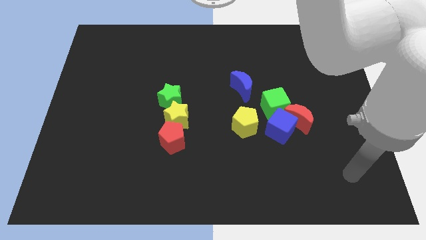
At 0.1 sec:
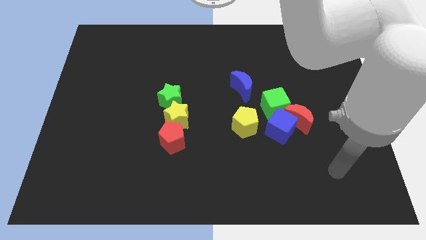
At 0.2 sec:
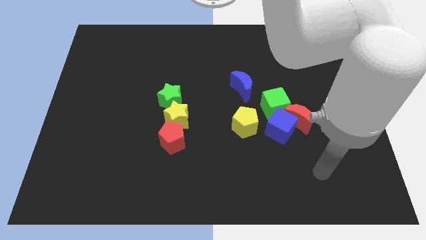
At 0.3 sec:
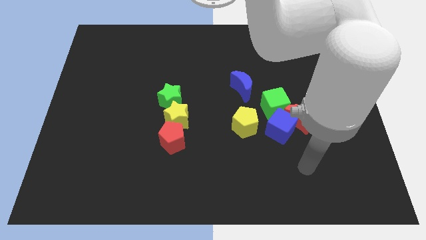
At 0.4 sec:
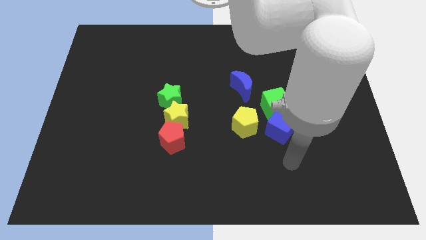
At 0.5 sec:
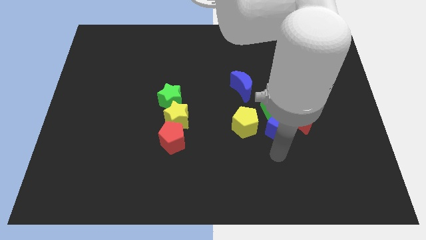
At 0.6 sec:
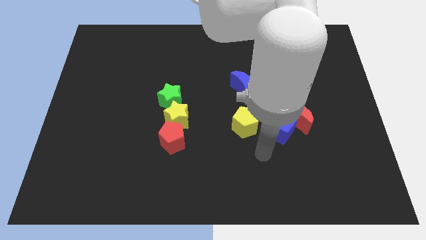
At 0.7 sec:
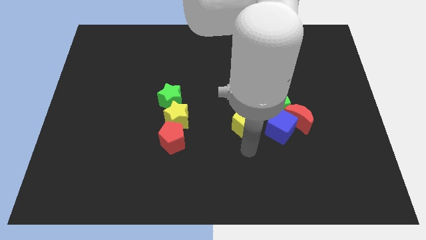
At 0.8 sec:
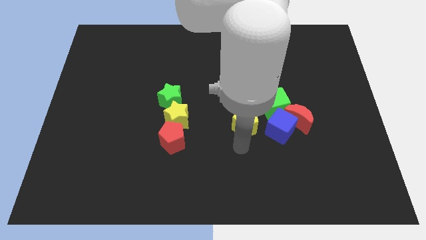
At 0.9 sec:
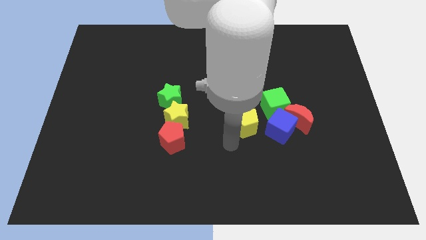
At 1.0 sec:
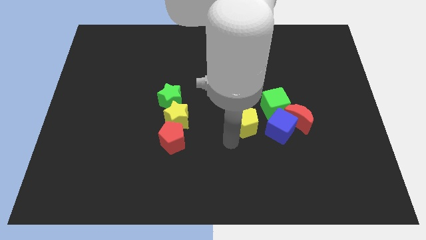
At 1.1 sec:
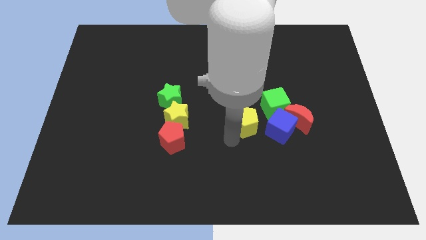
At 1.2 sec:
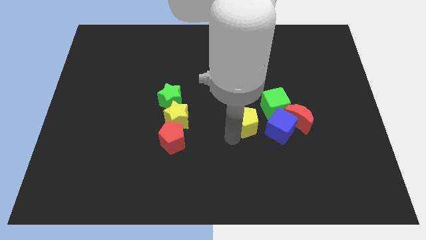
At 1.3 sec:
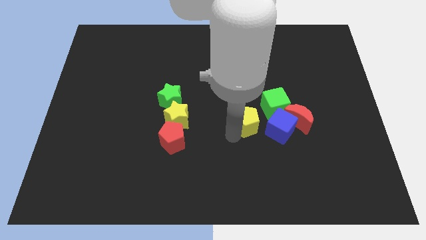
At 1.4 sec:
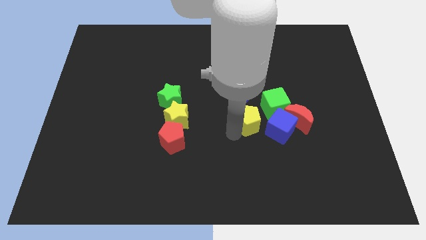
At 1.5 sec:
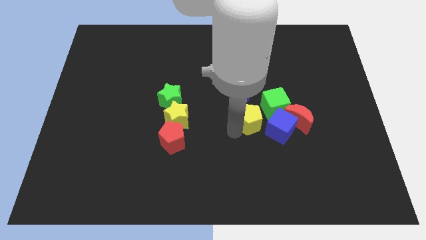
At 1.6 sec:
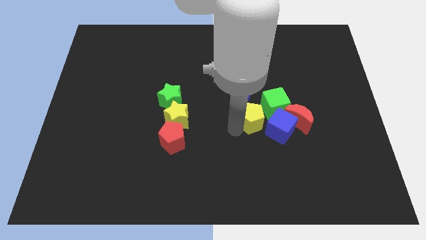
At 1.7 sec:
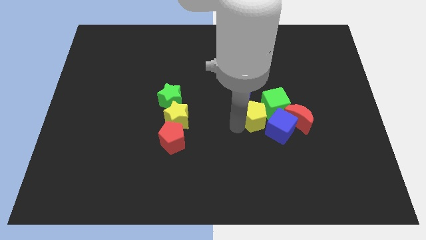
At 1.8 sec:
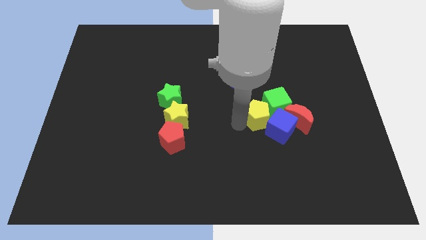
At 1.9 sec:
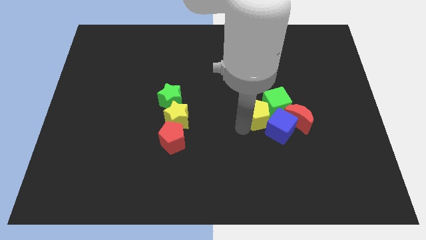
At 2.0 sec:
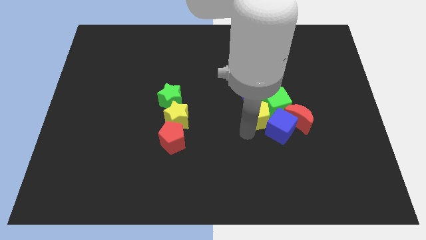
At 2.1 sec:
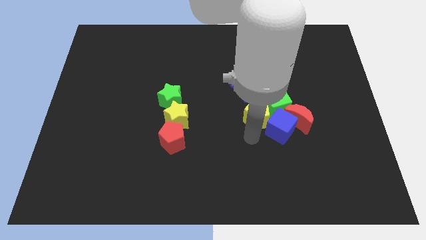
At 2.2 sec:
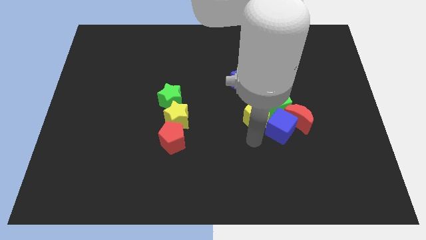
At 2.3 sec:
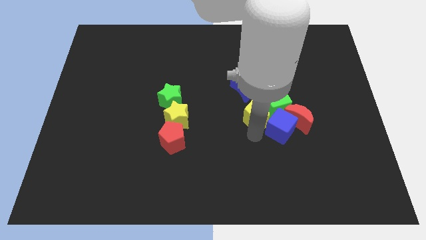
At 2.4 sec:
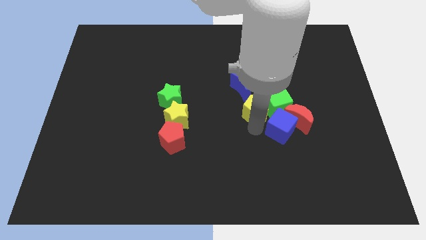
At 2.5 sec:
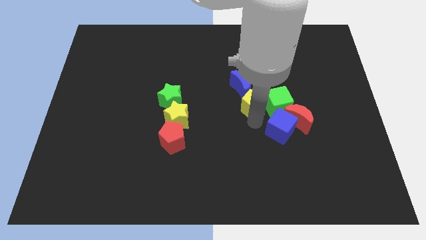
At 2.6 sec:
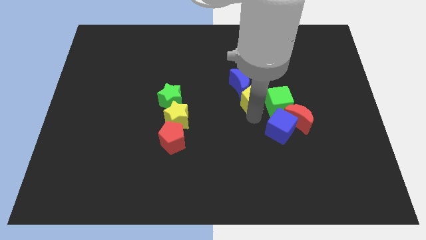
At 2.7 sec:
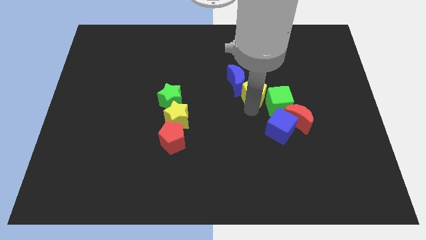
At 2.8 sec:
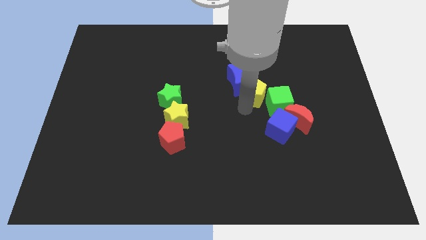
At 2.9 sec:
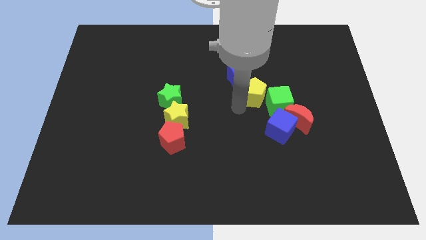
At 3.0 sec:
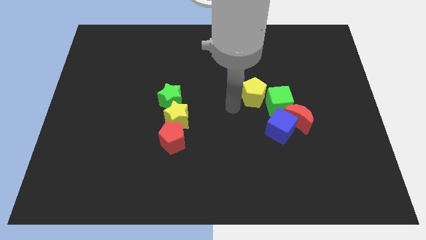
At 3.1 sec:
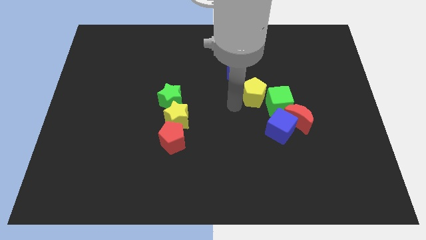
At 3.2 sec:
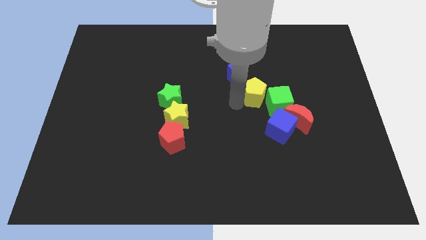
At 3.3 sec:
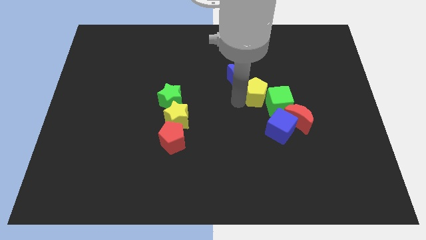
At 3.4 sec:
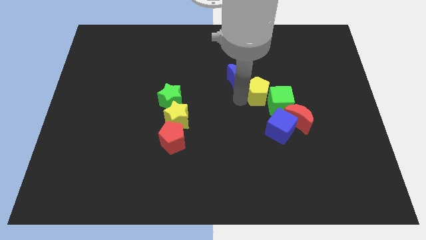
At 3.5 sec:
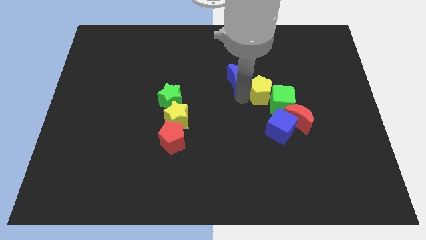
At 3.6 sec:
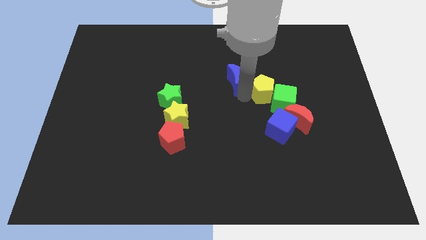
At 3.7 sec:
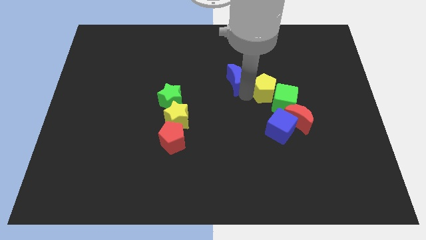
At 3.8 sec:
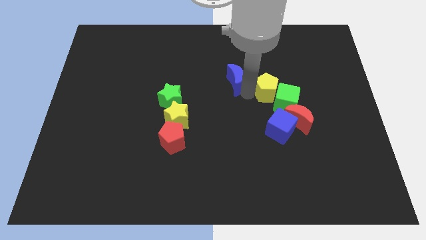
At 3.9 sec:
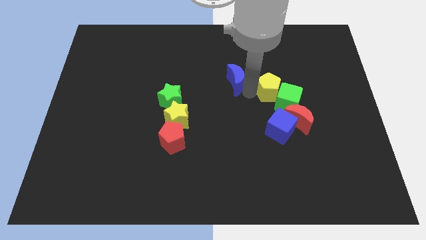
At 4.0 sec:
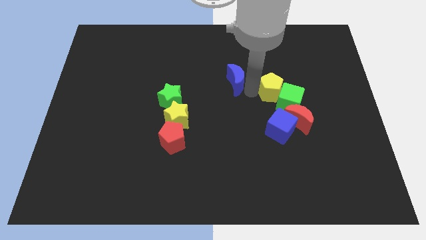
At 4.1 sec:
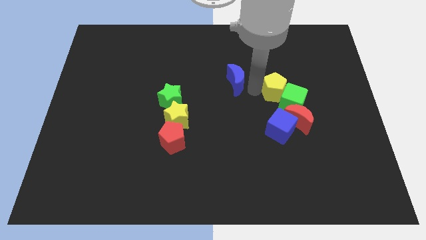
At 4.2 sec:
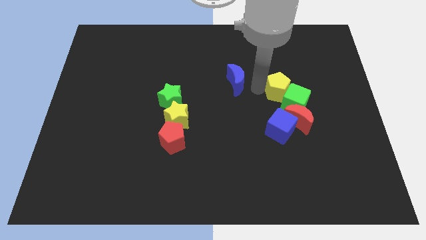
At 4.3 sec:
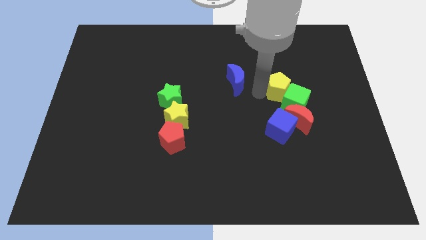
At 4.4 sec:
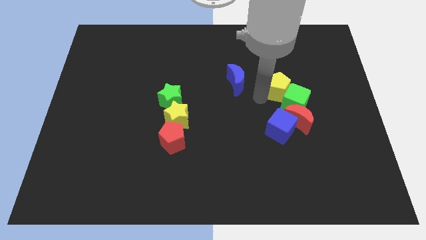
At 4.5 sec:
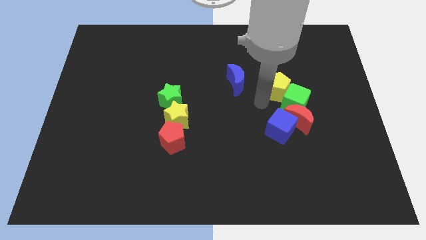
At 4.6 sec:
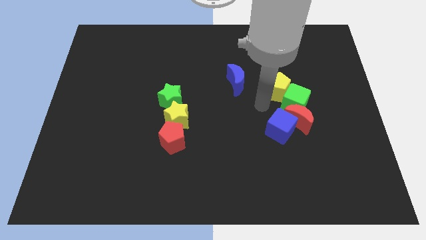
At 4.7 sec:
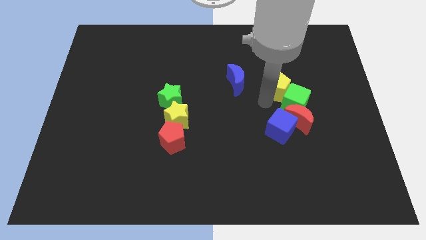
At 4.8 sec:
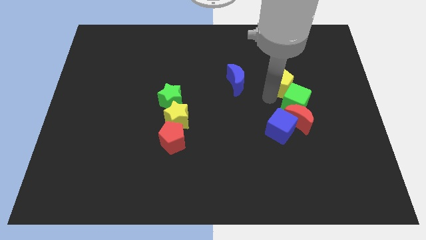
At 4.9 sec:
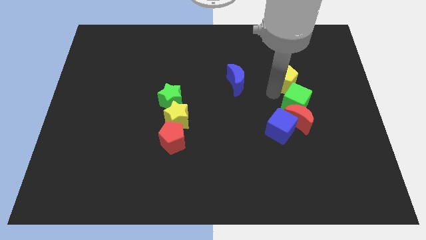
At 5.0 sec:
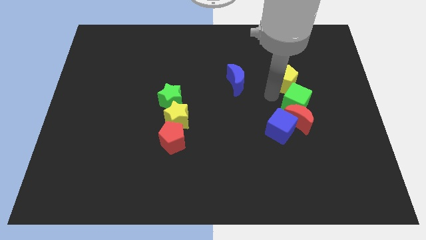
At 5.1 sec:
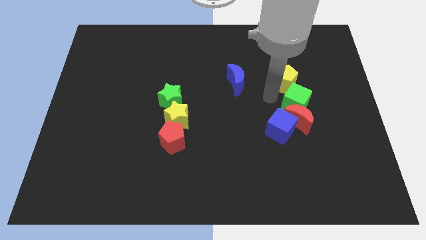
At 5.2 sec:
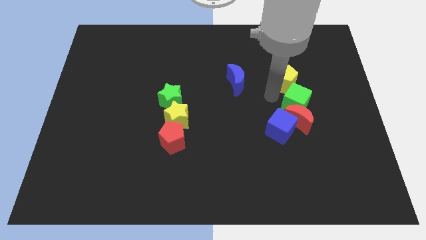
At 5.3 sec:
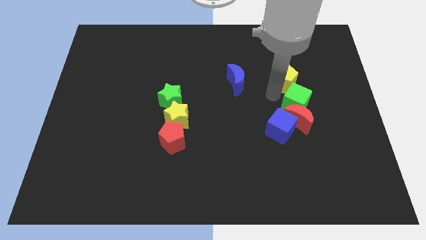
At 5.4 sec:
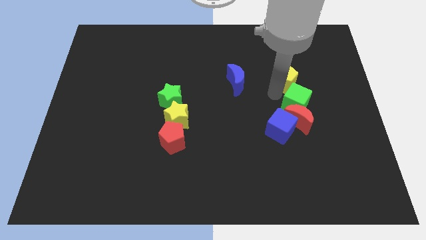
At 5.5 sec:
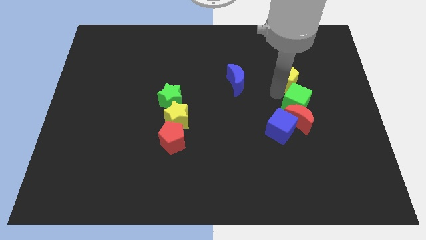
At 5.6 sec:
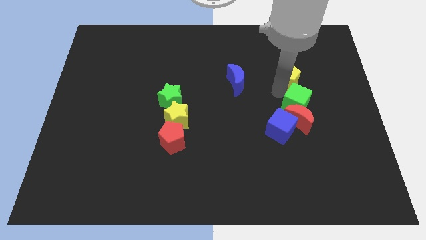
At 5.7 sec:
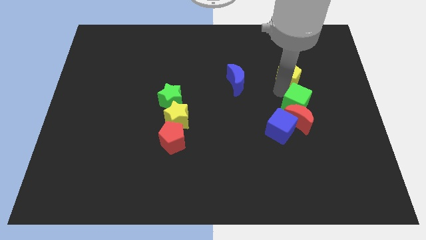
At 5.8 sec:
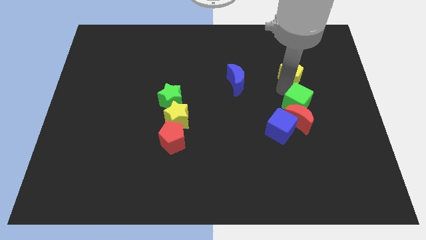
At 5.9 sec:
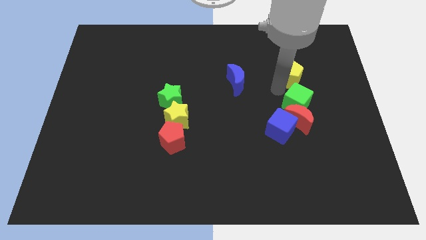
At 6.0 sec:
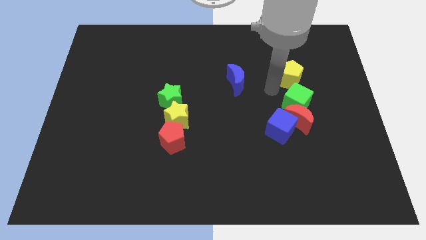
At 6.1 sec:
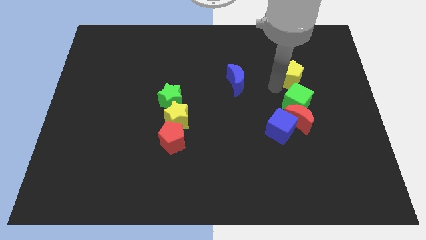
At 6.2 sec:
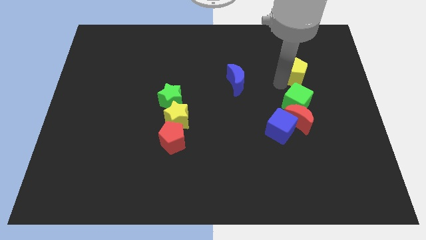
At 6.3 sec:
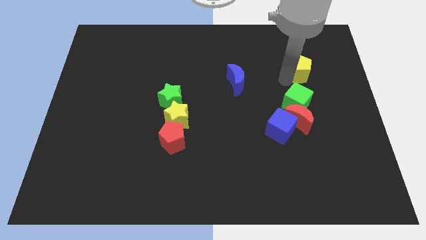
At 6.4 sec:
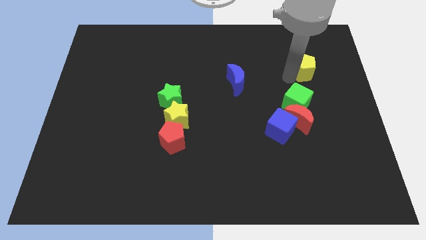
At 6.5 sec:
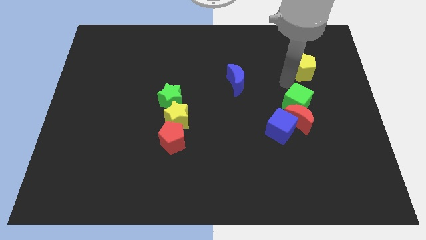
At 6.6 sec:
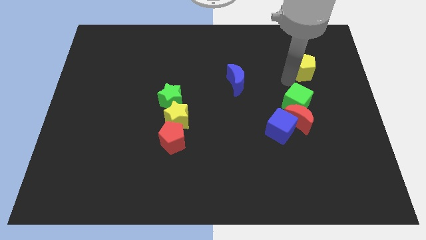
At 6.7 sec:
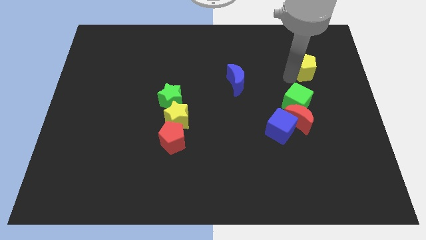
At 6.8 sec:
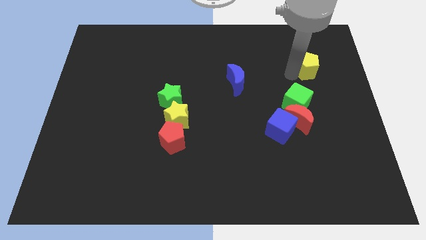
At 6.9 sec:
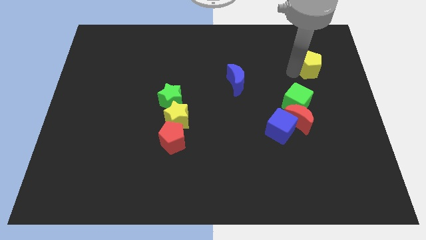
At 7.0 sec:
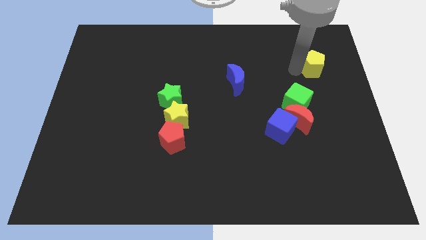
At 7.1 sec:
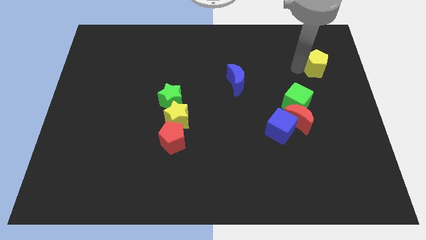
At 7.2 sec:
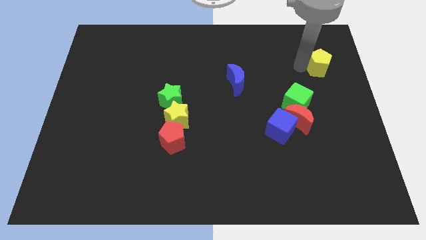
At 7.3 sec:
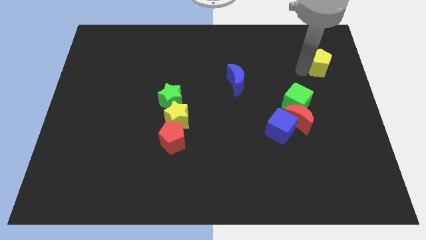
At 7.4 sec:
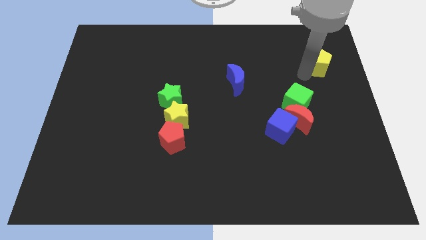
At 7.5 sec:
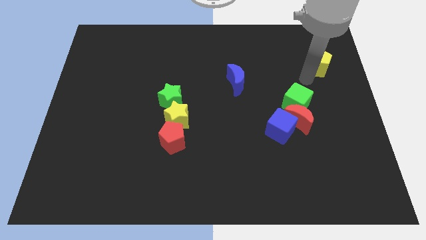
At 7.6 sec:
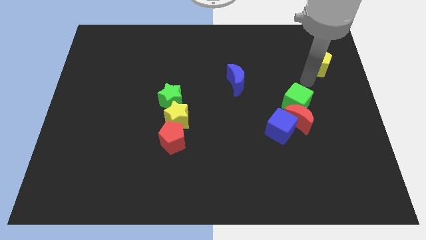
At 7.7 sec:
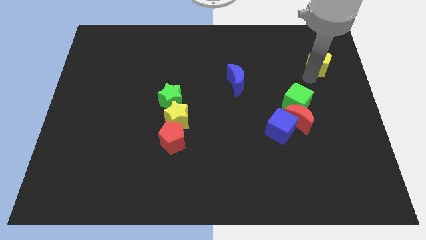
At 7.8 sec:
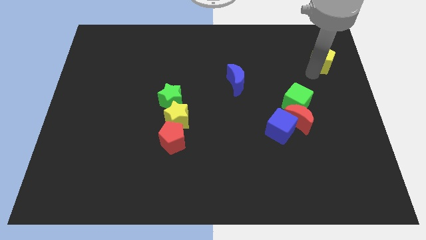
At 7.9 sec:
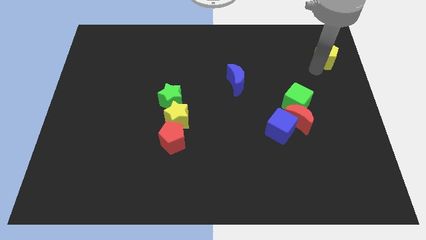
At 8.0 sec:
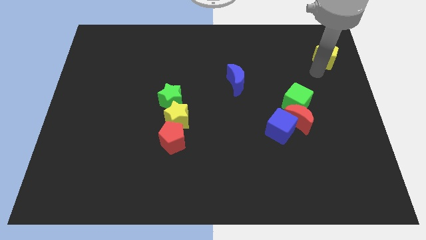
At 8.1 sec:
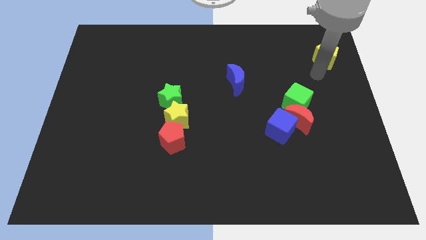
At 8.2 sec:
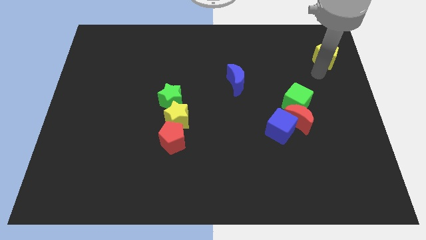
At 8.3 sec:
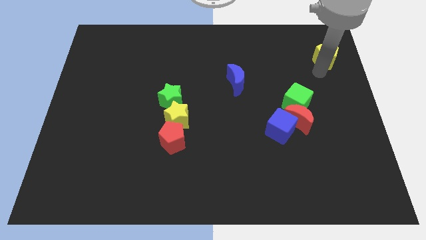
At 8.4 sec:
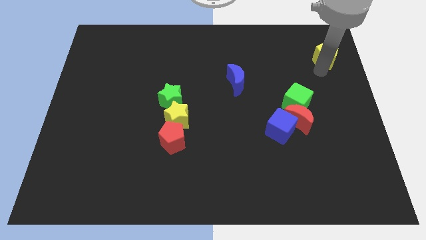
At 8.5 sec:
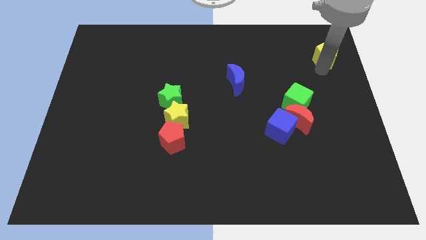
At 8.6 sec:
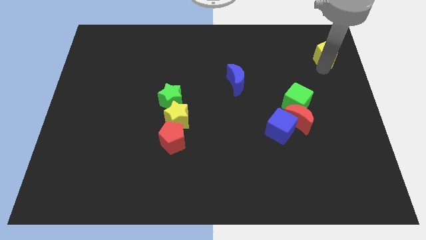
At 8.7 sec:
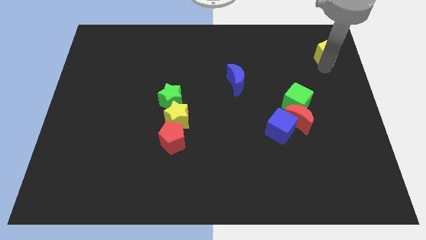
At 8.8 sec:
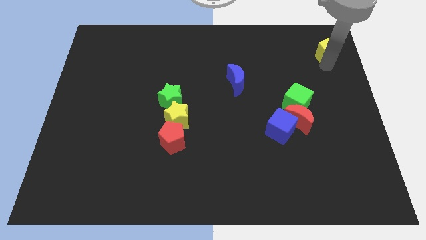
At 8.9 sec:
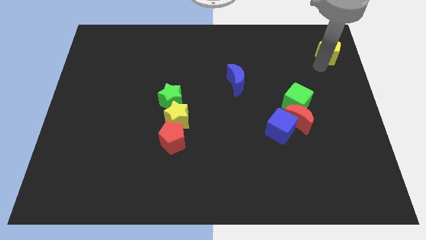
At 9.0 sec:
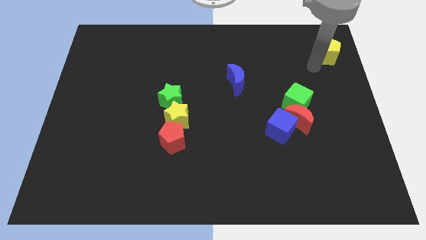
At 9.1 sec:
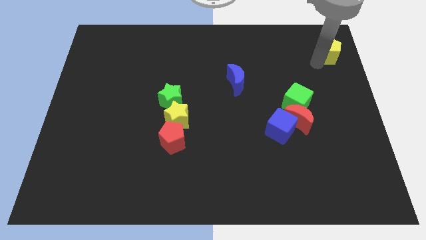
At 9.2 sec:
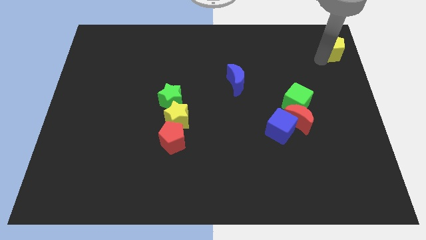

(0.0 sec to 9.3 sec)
move the yellow pentagon to the upper right corner
